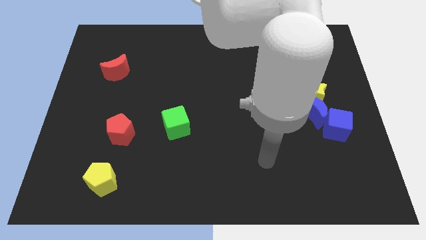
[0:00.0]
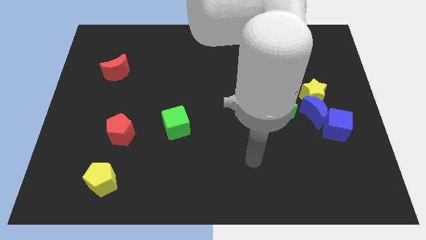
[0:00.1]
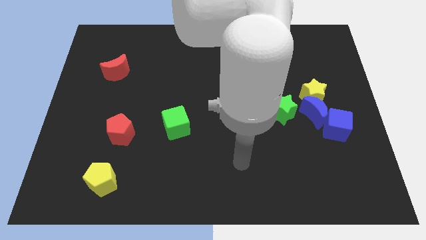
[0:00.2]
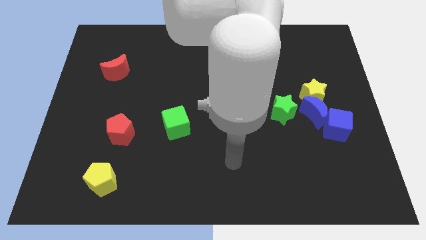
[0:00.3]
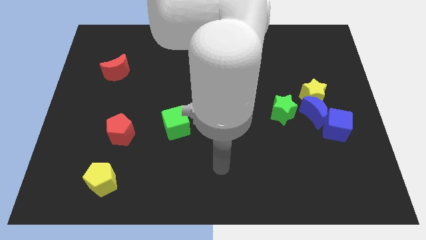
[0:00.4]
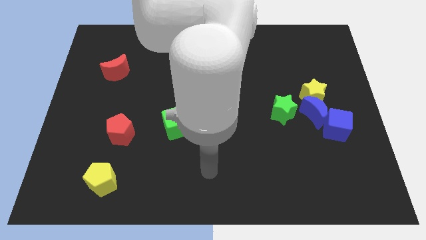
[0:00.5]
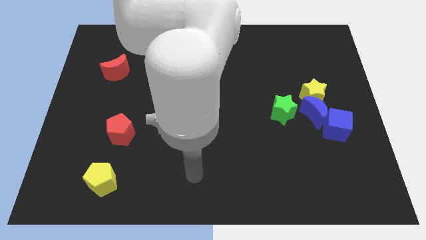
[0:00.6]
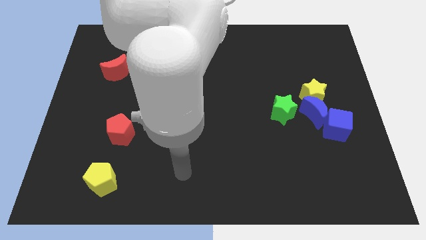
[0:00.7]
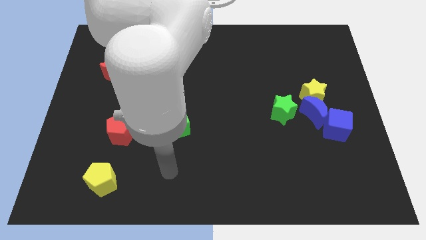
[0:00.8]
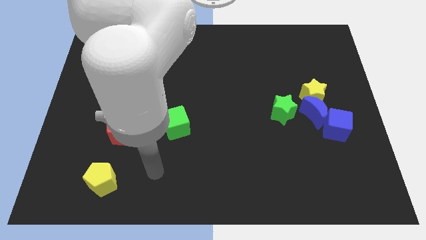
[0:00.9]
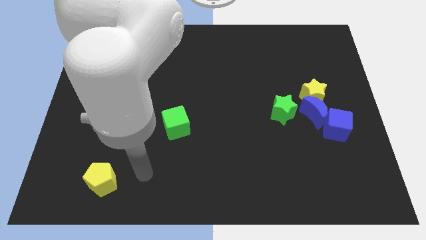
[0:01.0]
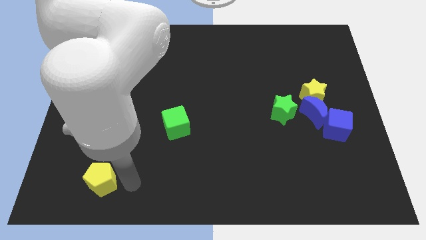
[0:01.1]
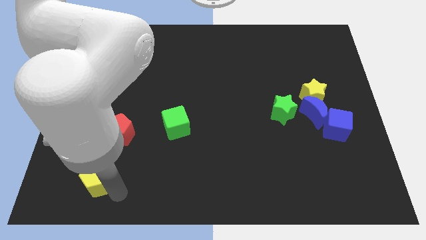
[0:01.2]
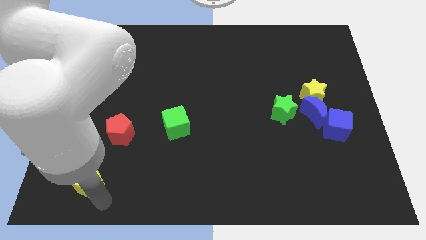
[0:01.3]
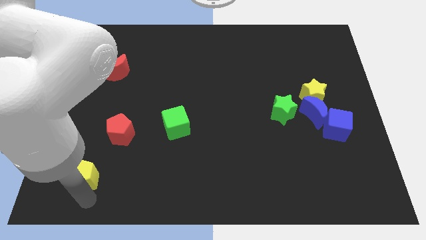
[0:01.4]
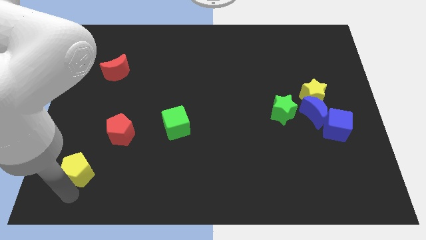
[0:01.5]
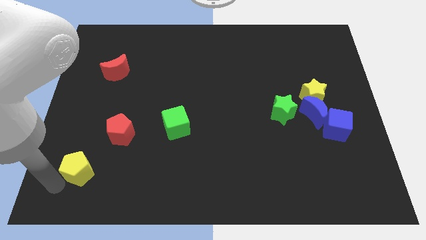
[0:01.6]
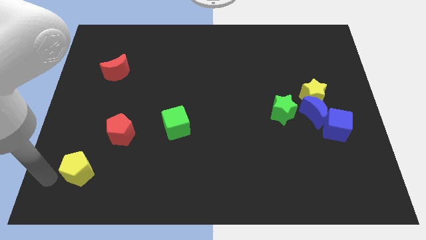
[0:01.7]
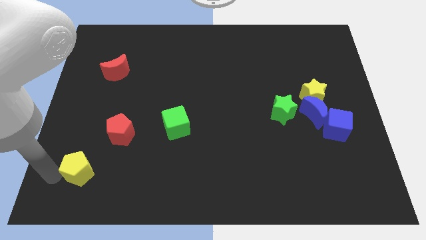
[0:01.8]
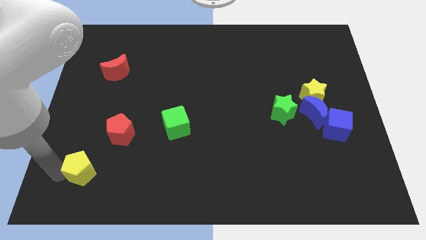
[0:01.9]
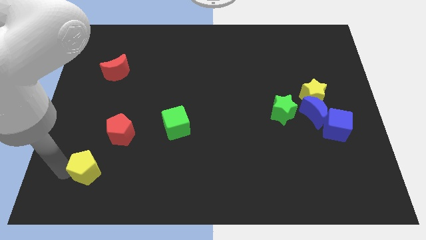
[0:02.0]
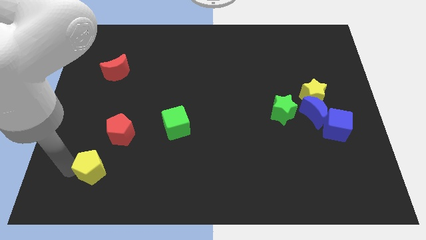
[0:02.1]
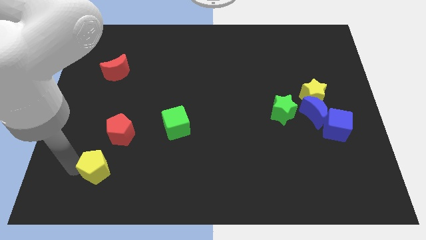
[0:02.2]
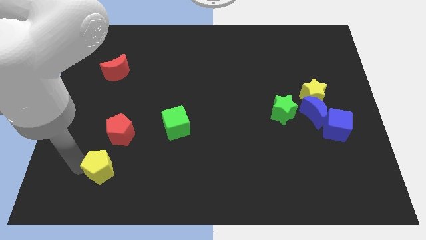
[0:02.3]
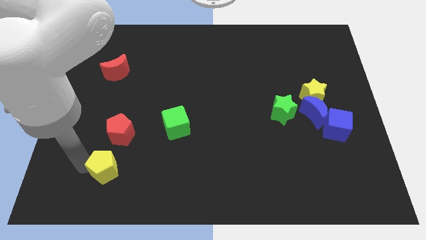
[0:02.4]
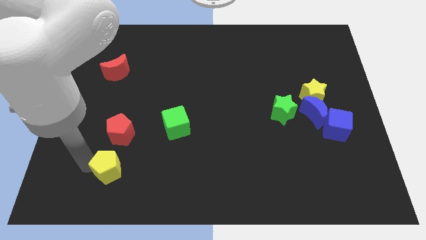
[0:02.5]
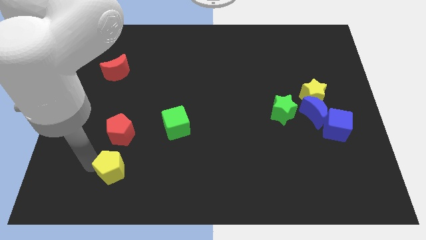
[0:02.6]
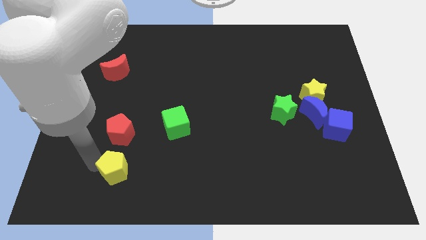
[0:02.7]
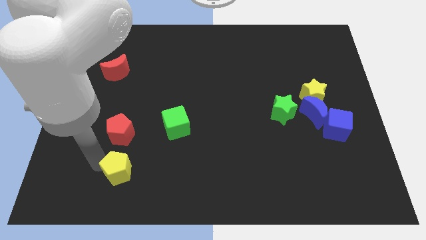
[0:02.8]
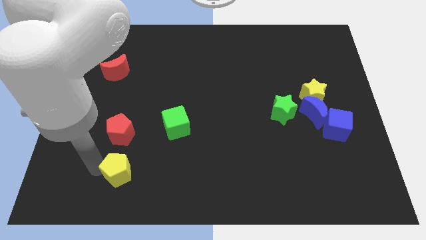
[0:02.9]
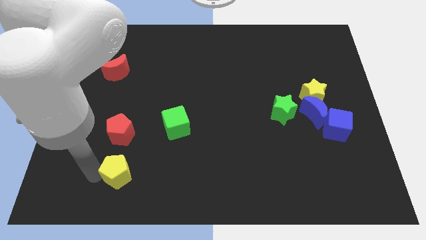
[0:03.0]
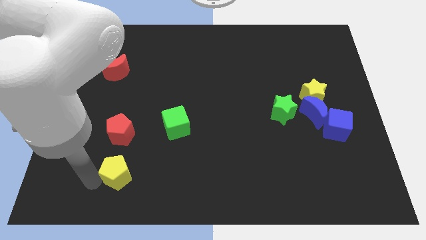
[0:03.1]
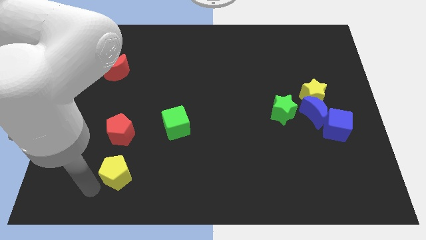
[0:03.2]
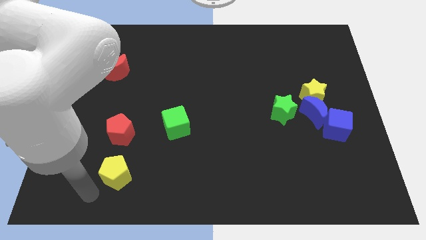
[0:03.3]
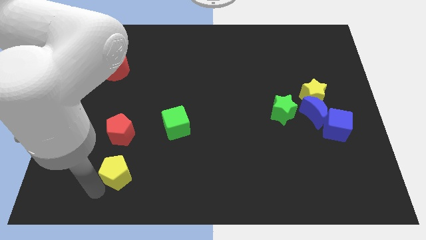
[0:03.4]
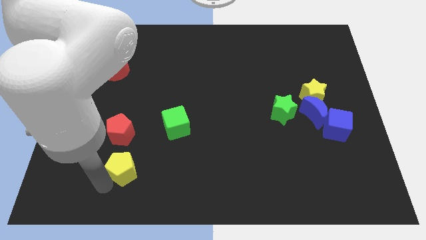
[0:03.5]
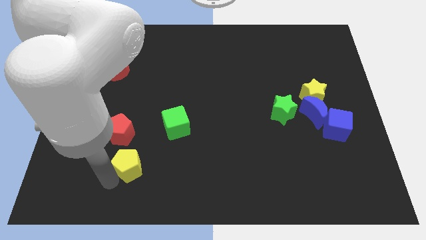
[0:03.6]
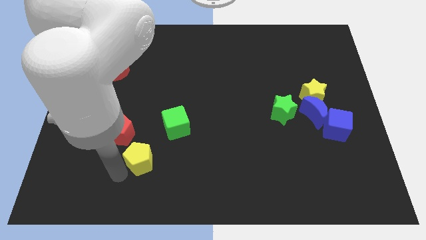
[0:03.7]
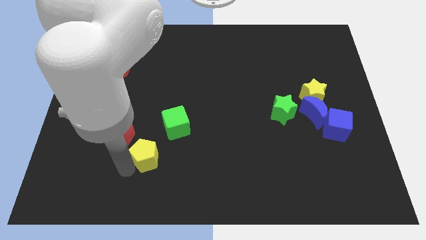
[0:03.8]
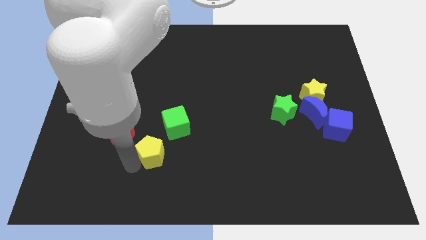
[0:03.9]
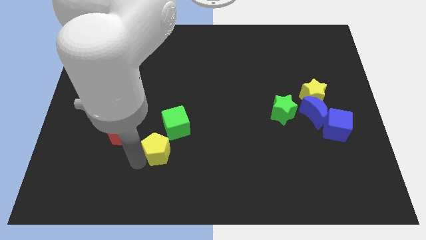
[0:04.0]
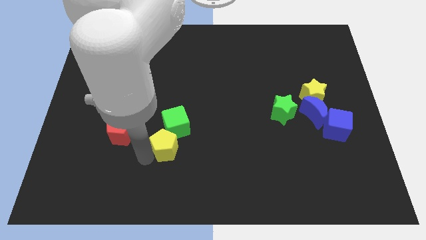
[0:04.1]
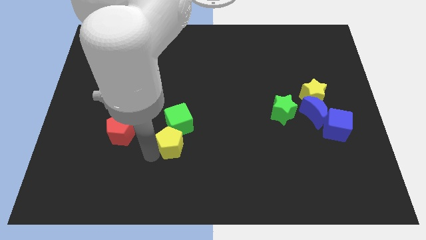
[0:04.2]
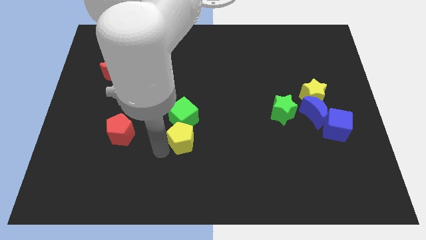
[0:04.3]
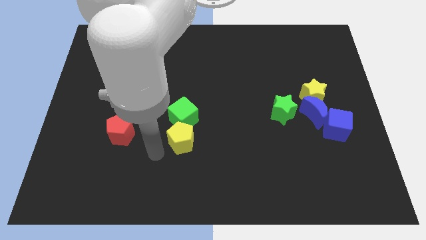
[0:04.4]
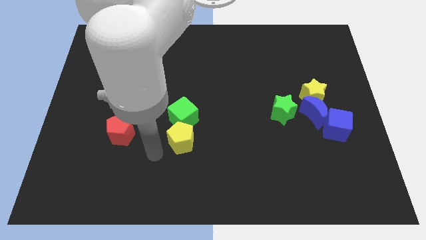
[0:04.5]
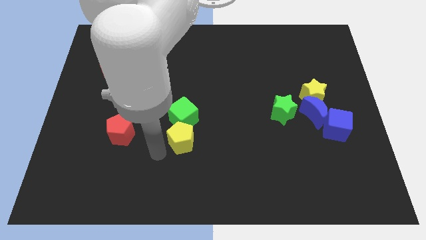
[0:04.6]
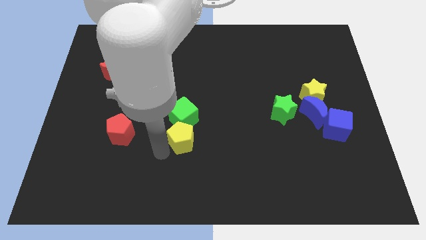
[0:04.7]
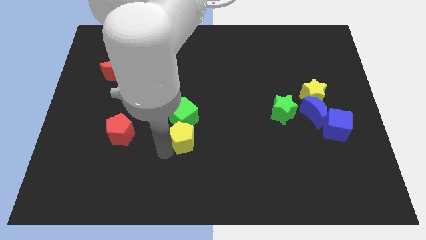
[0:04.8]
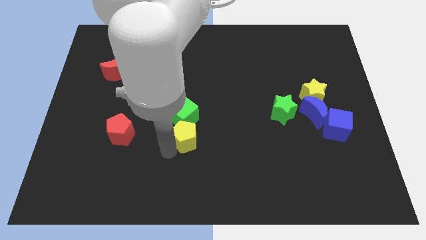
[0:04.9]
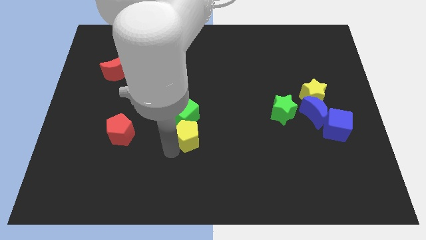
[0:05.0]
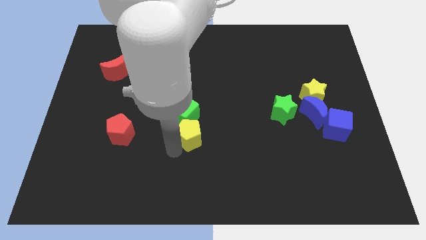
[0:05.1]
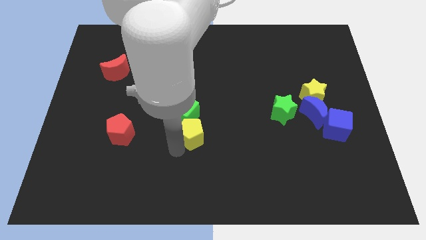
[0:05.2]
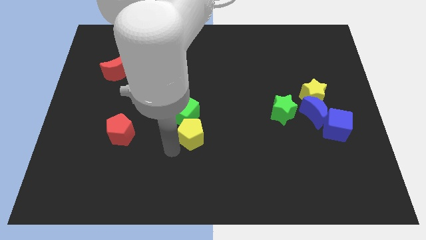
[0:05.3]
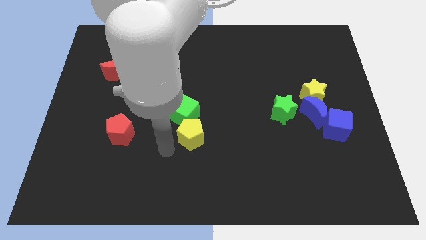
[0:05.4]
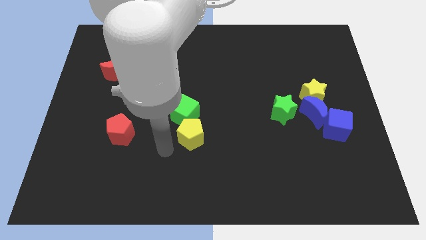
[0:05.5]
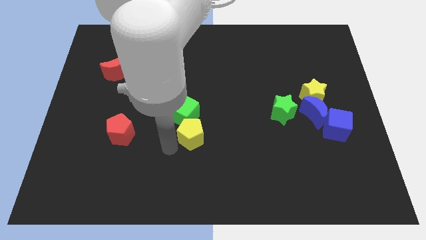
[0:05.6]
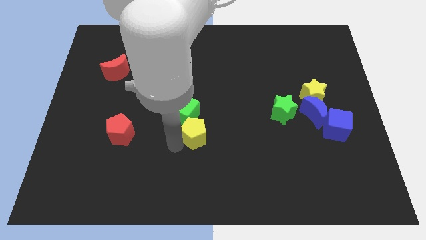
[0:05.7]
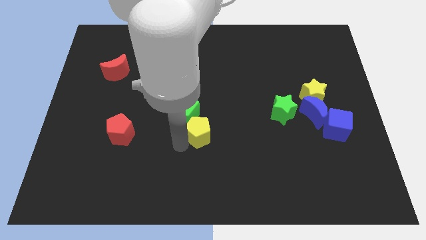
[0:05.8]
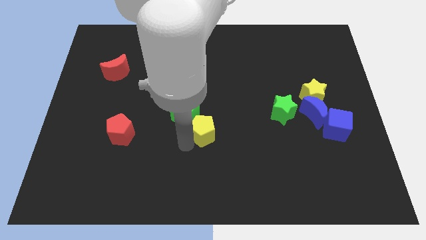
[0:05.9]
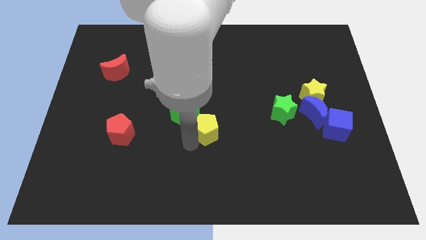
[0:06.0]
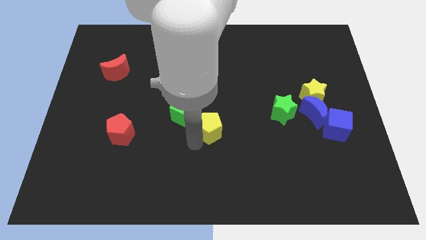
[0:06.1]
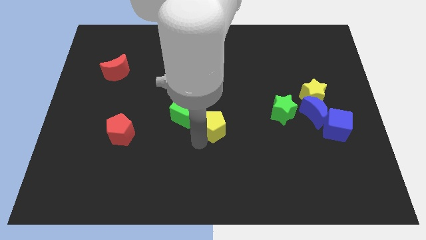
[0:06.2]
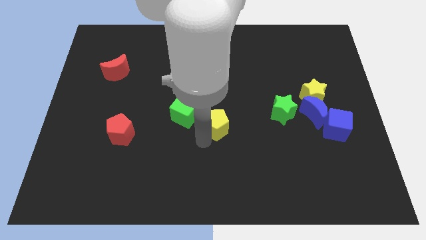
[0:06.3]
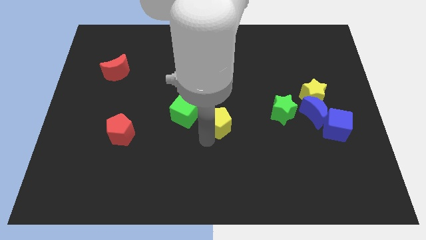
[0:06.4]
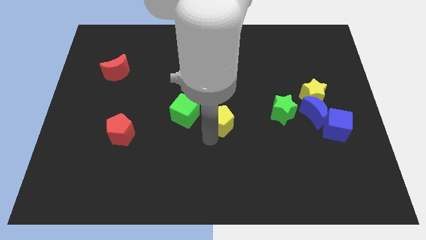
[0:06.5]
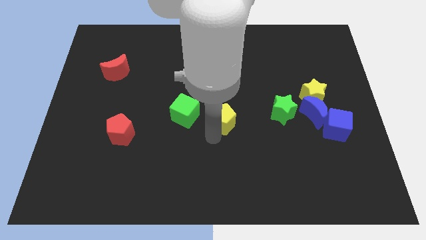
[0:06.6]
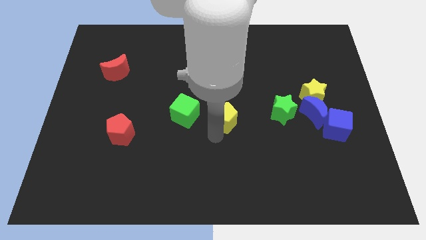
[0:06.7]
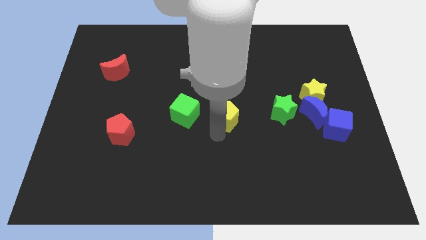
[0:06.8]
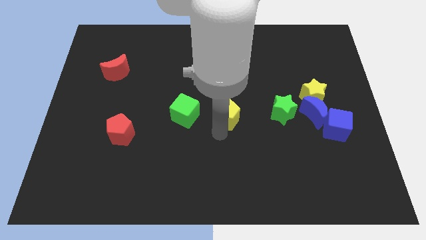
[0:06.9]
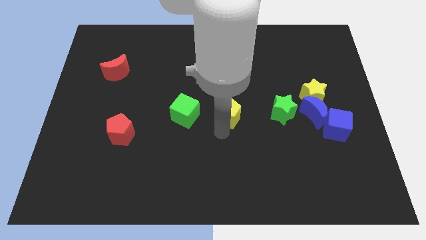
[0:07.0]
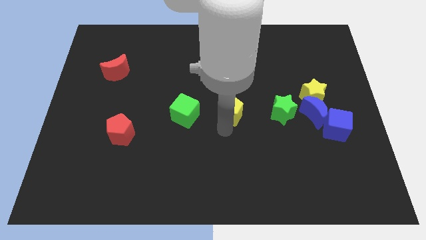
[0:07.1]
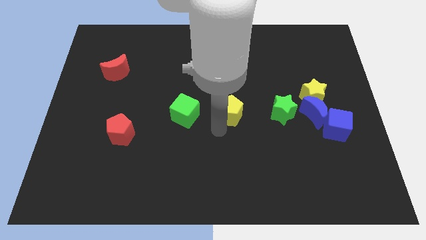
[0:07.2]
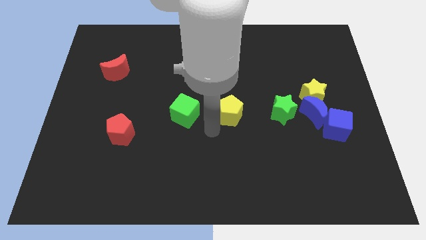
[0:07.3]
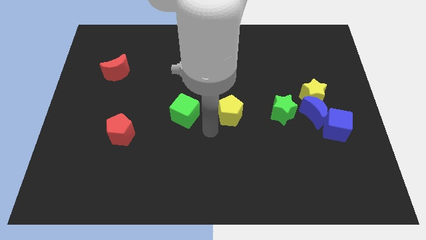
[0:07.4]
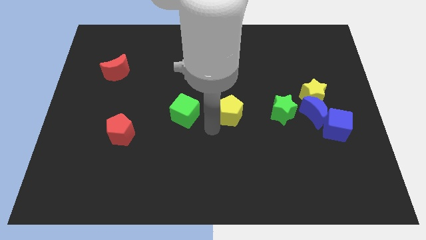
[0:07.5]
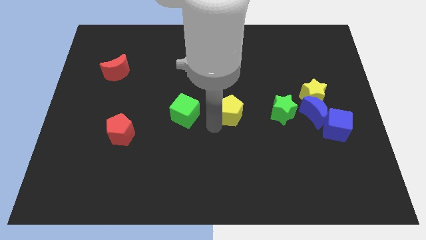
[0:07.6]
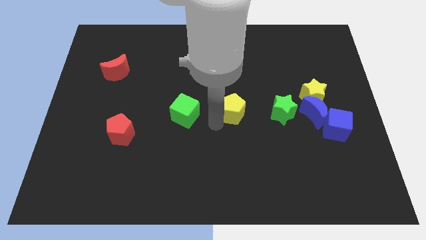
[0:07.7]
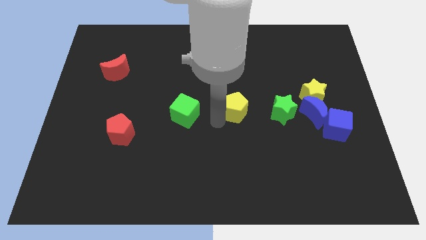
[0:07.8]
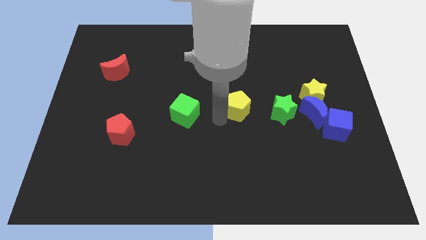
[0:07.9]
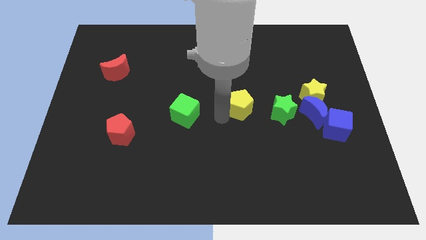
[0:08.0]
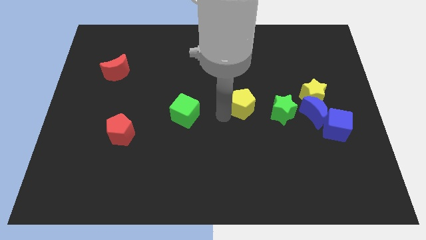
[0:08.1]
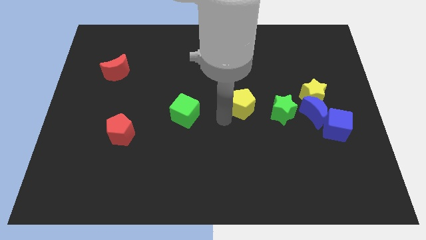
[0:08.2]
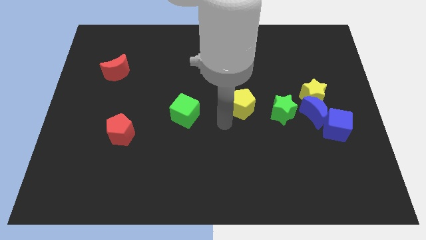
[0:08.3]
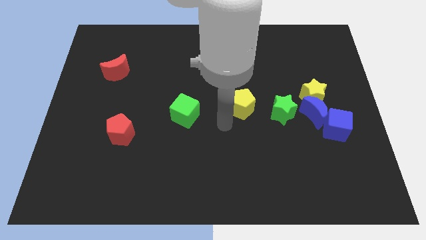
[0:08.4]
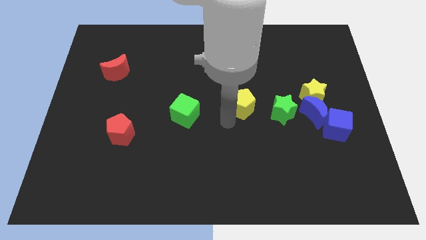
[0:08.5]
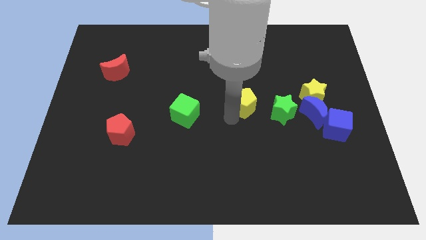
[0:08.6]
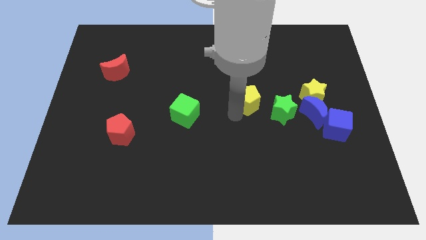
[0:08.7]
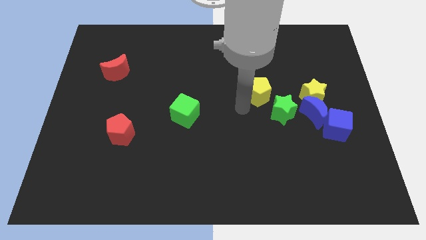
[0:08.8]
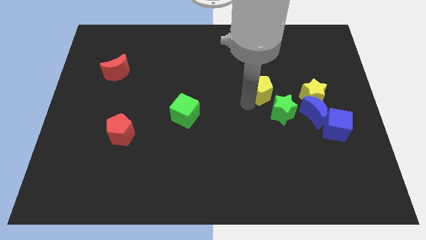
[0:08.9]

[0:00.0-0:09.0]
move the yellow pentagon above the green star
